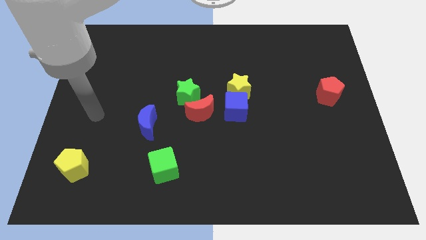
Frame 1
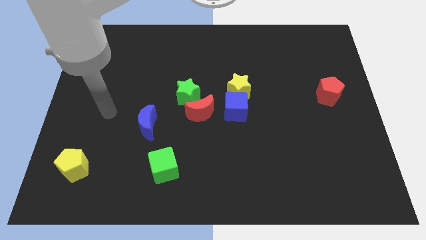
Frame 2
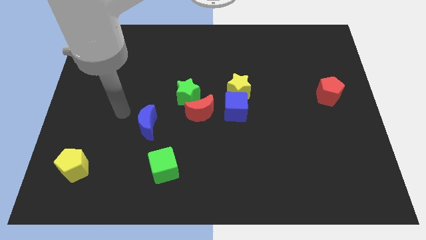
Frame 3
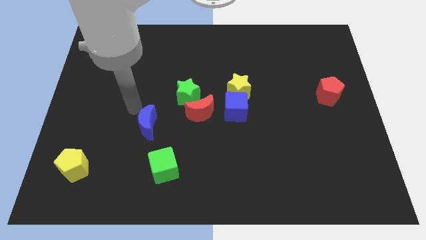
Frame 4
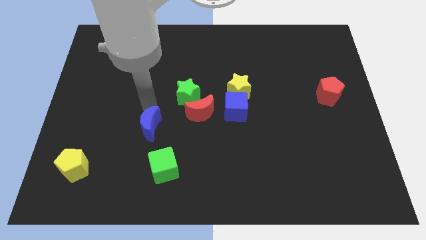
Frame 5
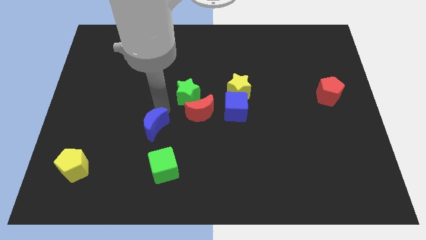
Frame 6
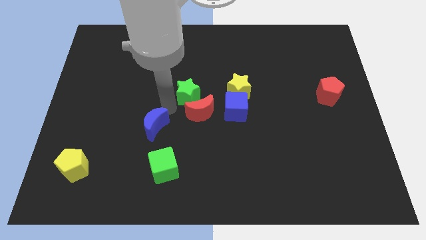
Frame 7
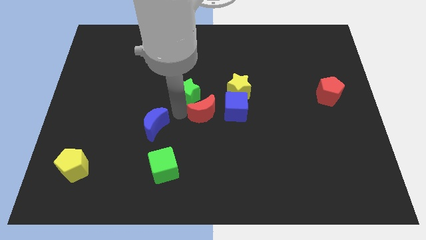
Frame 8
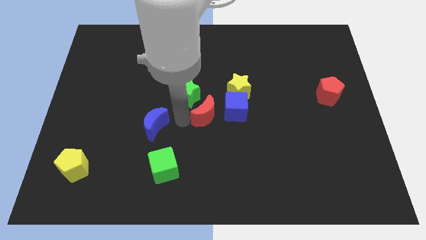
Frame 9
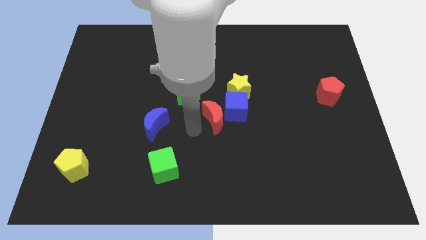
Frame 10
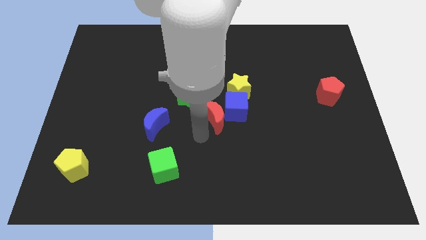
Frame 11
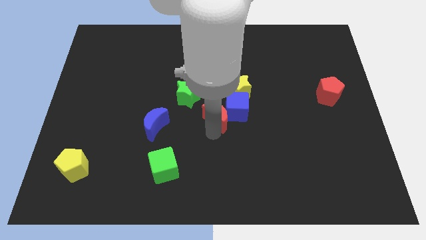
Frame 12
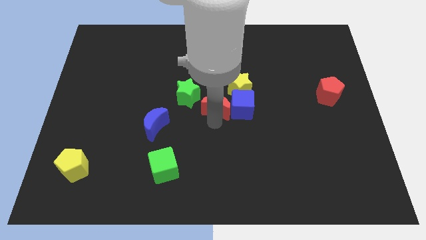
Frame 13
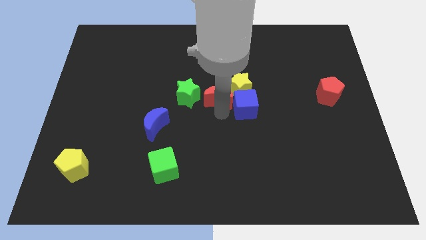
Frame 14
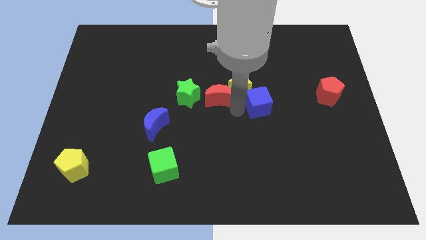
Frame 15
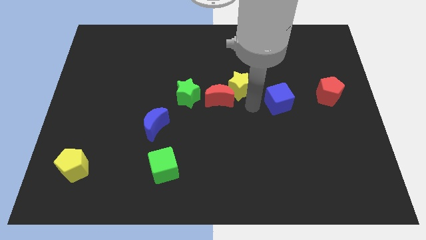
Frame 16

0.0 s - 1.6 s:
separate the yellow star from the blue cube

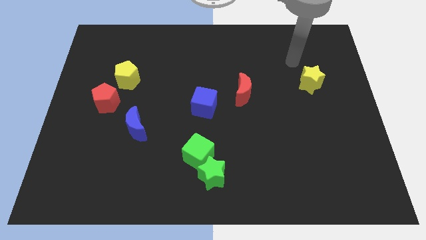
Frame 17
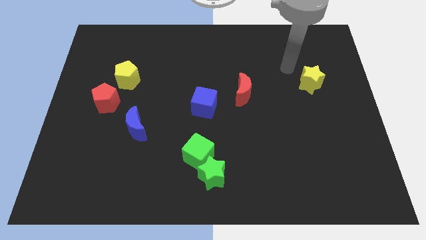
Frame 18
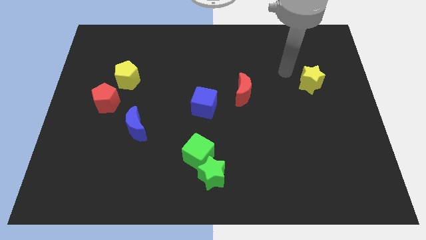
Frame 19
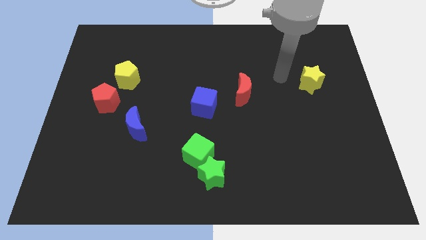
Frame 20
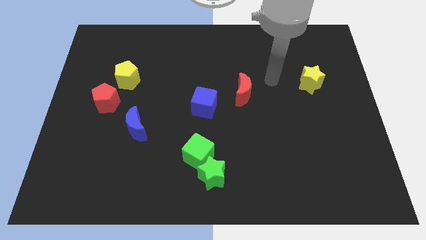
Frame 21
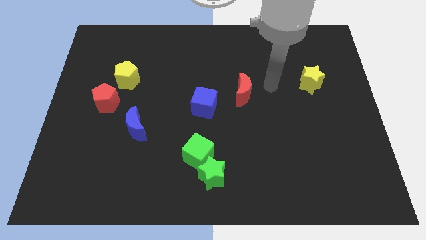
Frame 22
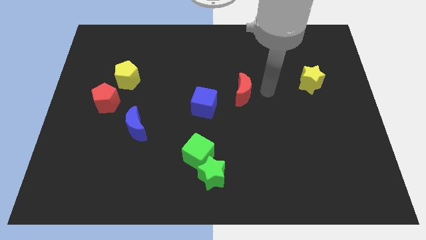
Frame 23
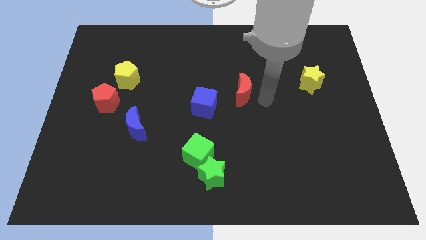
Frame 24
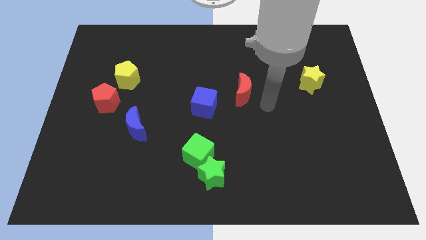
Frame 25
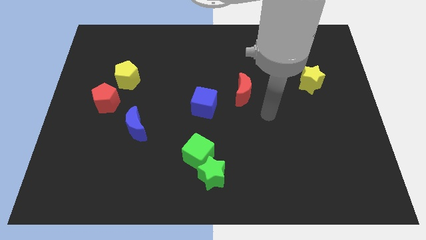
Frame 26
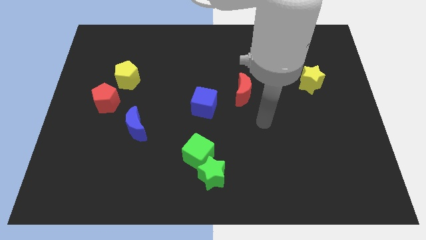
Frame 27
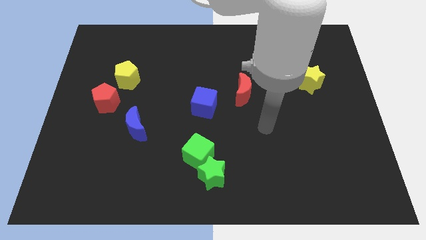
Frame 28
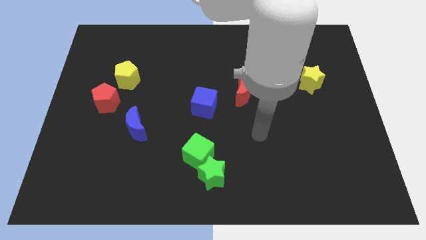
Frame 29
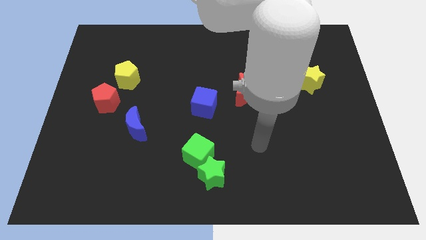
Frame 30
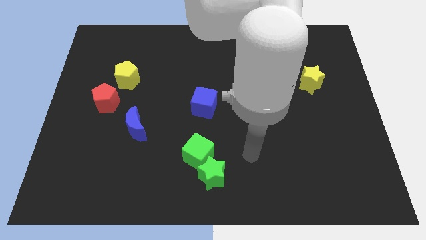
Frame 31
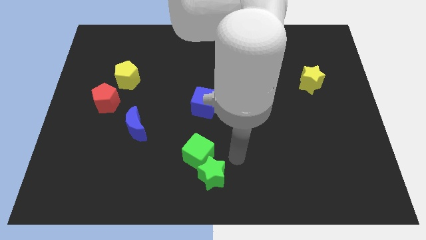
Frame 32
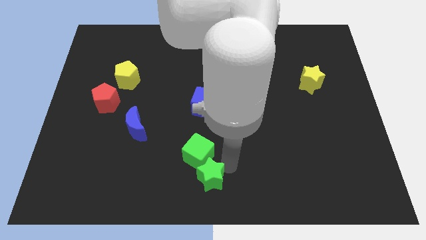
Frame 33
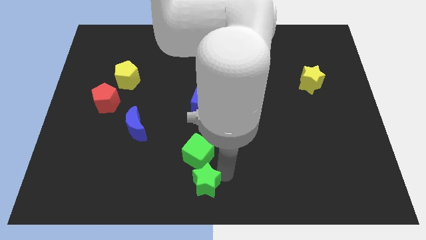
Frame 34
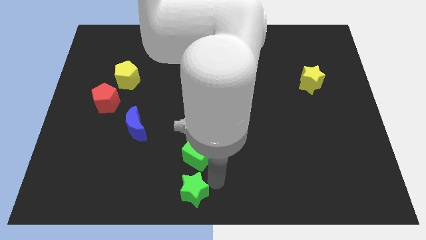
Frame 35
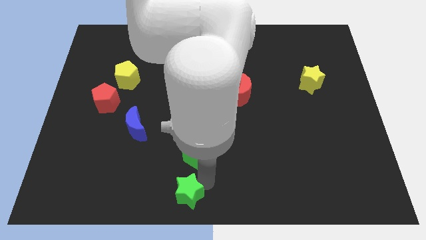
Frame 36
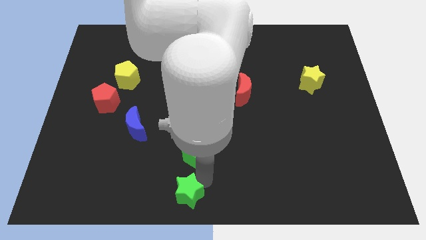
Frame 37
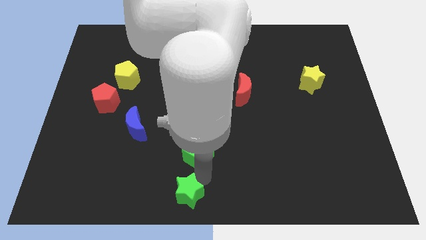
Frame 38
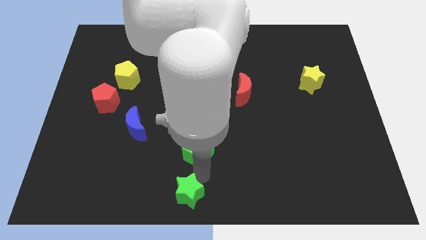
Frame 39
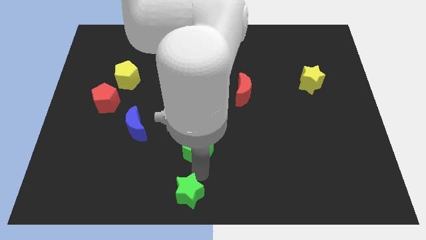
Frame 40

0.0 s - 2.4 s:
move the green cube away from the green star

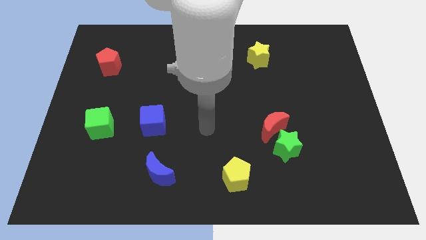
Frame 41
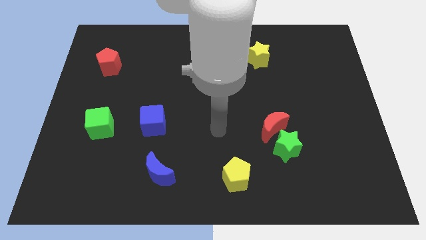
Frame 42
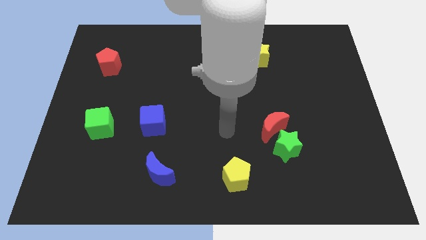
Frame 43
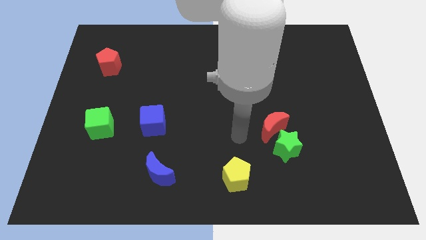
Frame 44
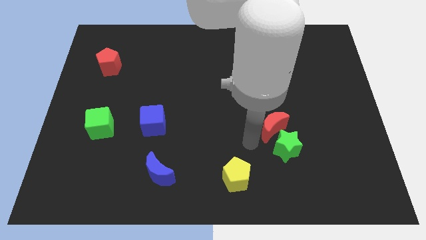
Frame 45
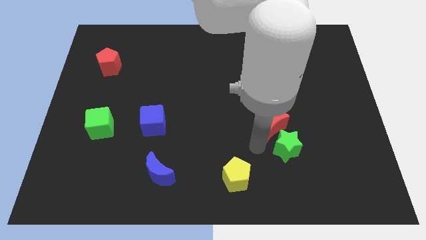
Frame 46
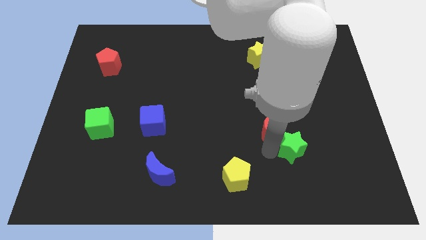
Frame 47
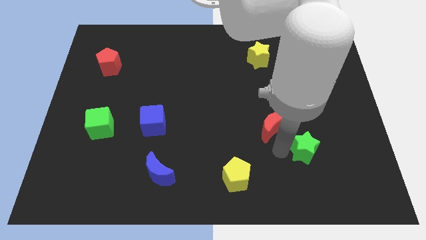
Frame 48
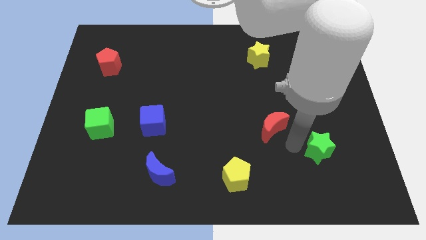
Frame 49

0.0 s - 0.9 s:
separate the red moon from the green star

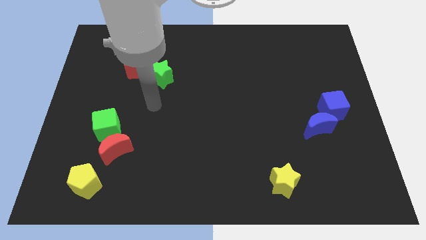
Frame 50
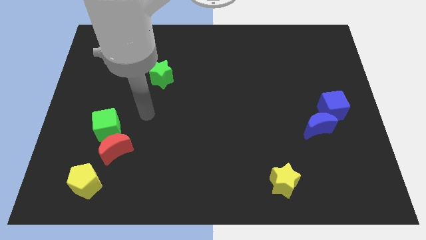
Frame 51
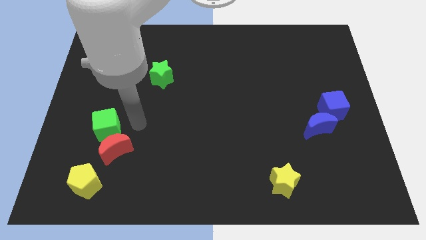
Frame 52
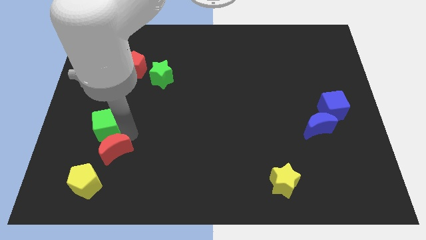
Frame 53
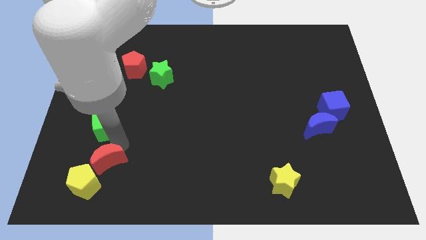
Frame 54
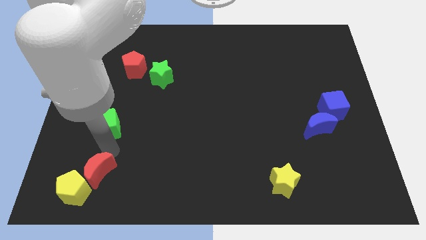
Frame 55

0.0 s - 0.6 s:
move the green cube away from the red moon

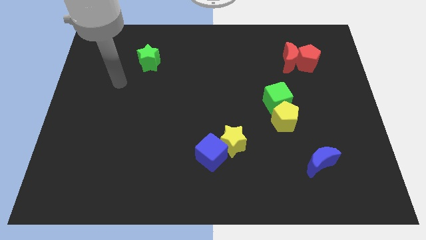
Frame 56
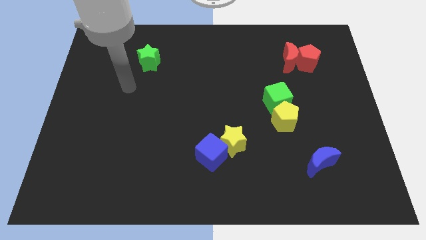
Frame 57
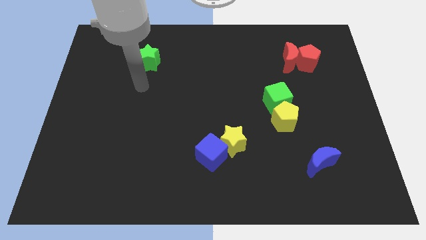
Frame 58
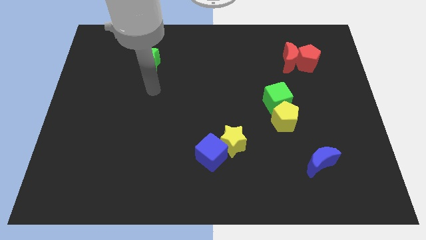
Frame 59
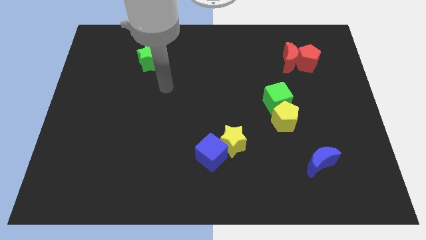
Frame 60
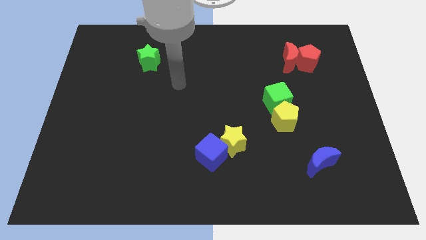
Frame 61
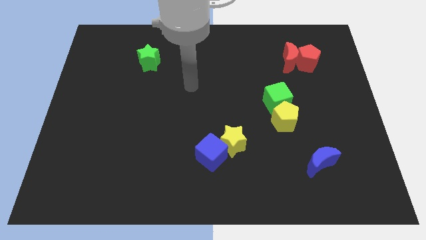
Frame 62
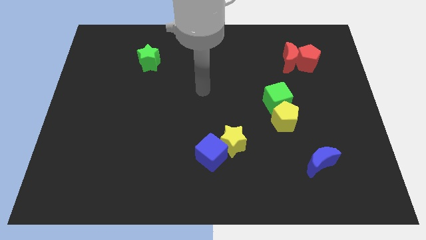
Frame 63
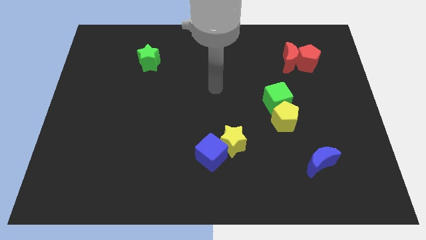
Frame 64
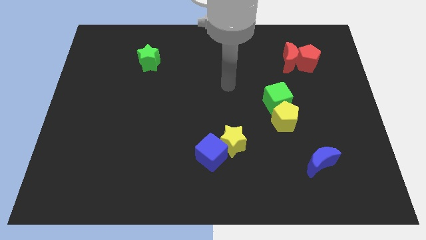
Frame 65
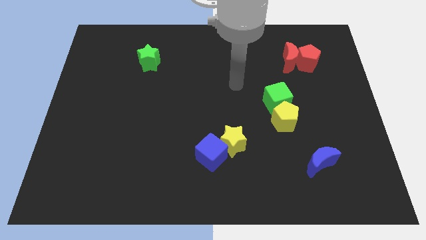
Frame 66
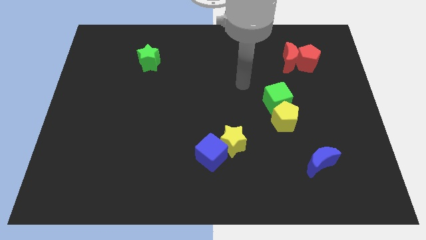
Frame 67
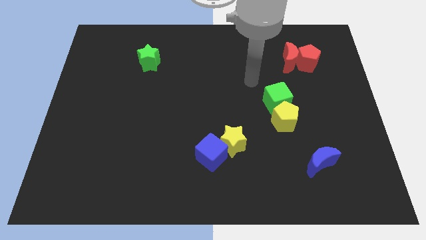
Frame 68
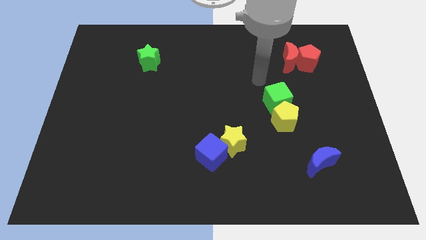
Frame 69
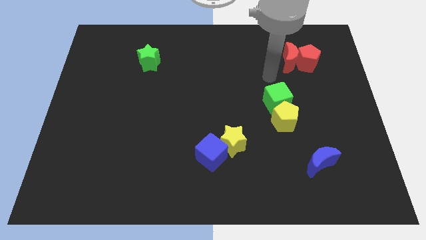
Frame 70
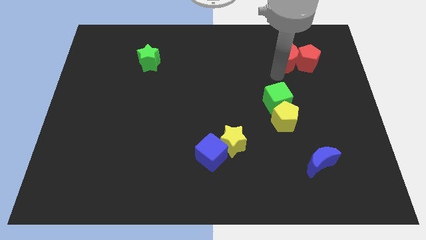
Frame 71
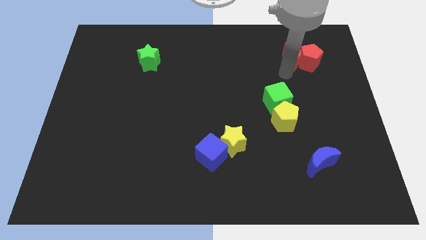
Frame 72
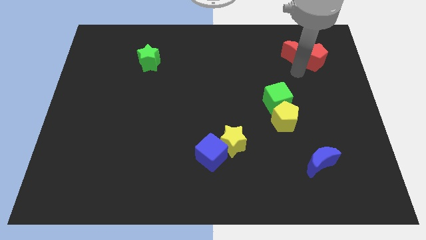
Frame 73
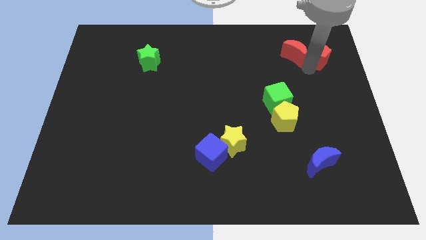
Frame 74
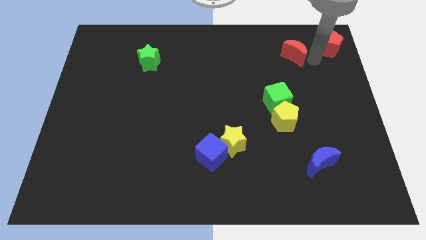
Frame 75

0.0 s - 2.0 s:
separate the red moon from the red pentagon

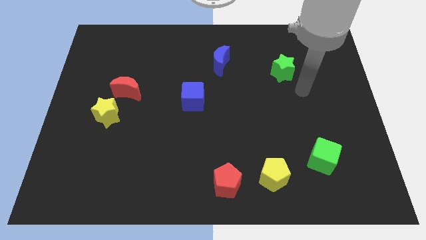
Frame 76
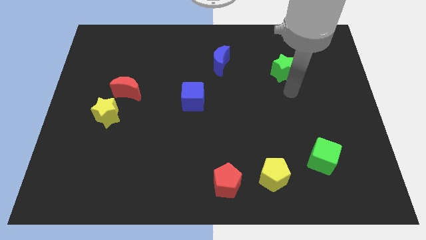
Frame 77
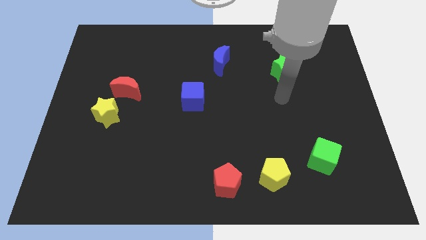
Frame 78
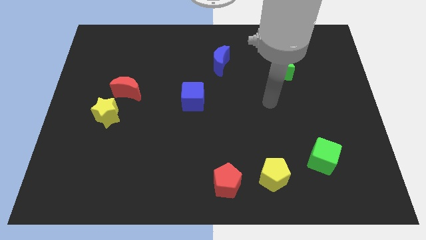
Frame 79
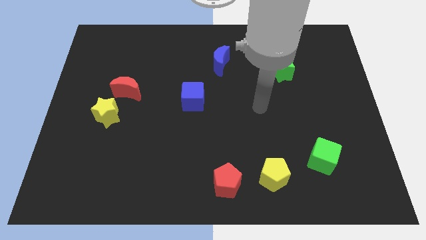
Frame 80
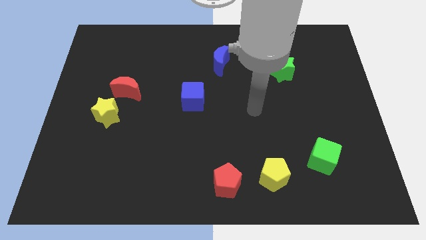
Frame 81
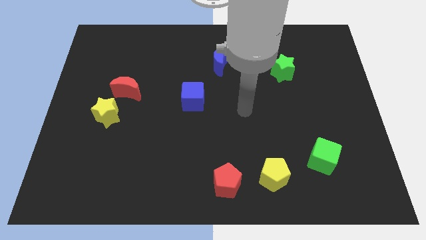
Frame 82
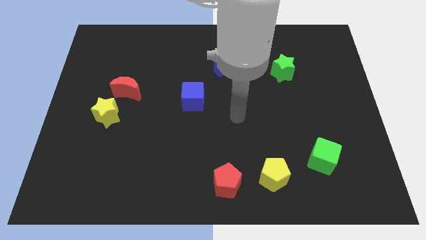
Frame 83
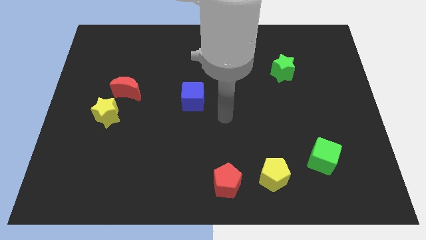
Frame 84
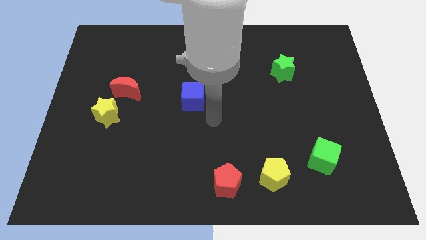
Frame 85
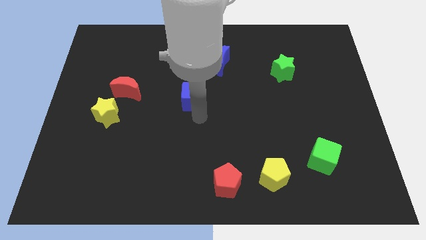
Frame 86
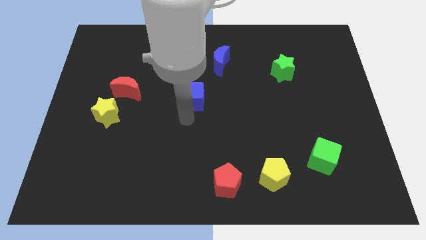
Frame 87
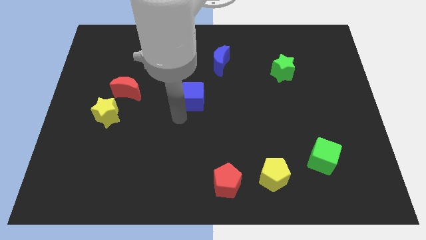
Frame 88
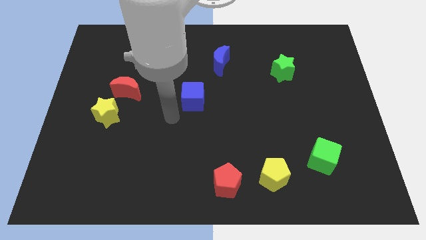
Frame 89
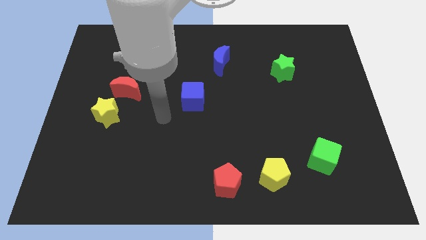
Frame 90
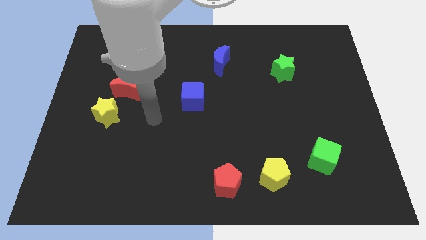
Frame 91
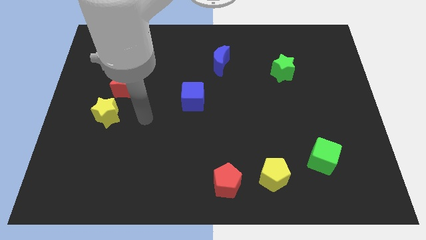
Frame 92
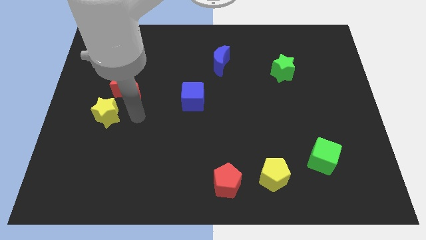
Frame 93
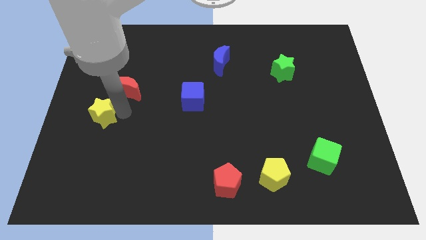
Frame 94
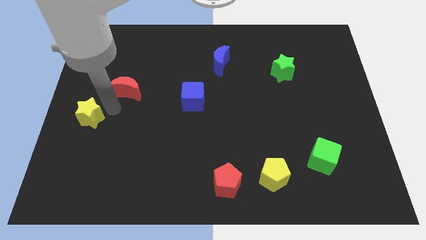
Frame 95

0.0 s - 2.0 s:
pull the red moon apart from the yellow star
